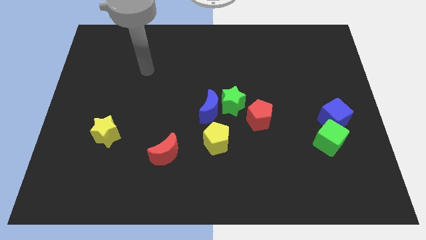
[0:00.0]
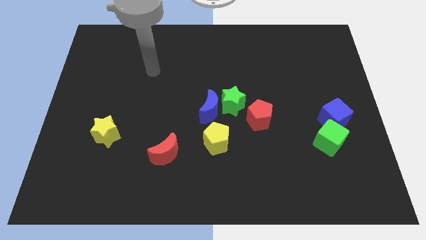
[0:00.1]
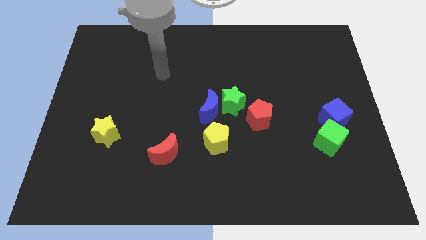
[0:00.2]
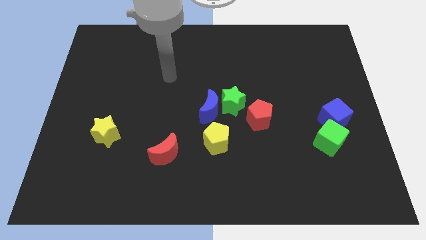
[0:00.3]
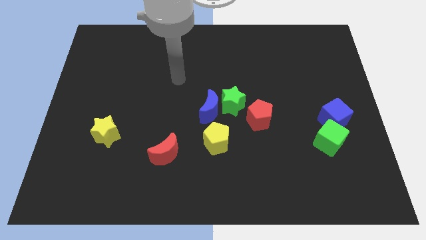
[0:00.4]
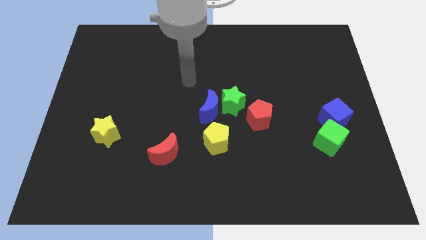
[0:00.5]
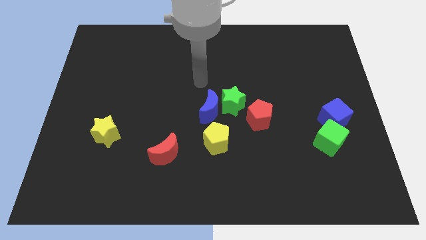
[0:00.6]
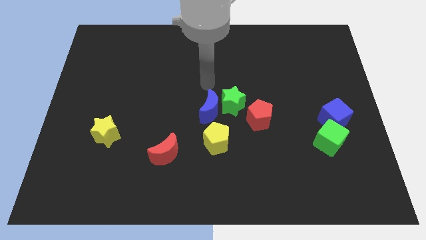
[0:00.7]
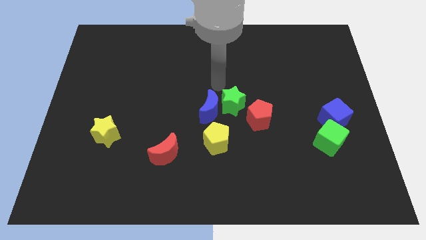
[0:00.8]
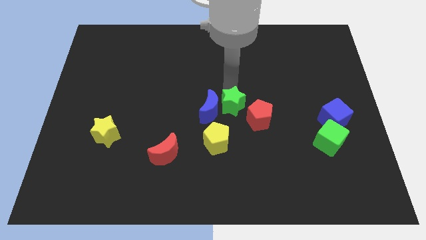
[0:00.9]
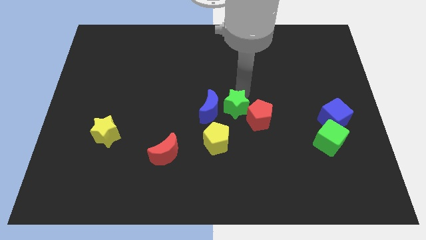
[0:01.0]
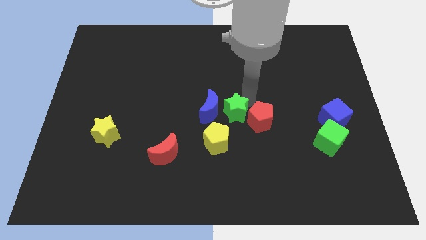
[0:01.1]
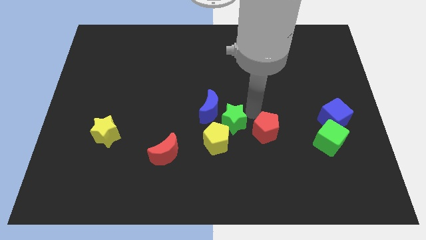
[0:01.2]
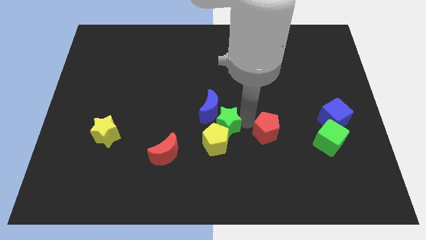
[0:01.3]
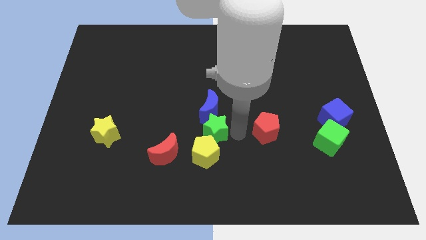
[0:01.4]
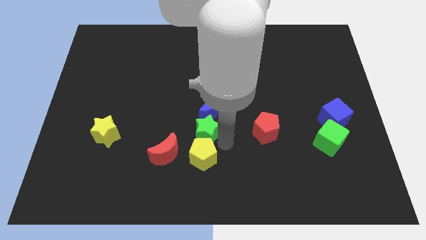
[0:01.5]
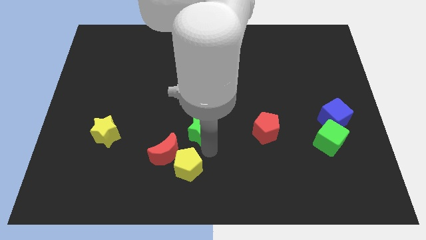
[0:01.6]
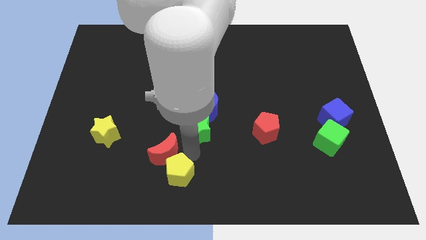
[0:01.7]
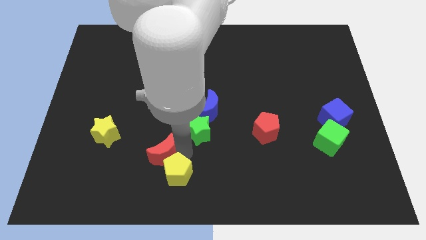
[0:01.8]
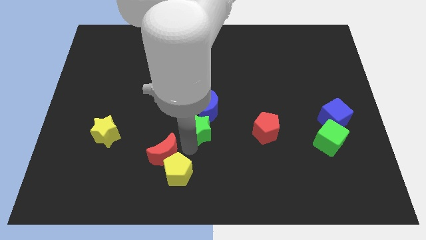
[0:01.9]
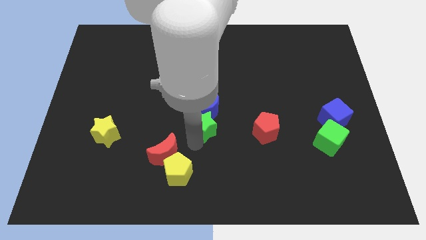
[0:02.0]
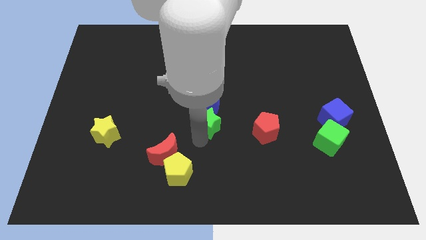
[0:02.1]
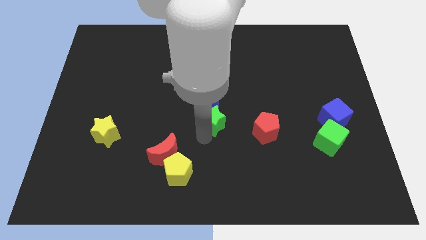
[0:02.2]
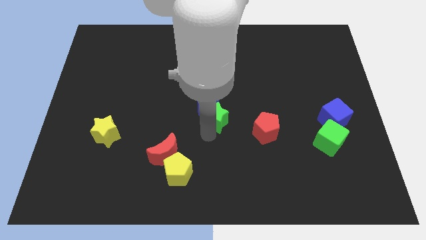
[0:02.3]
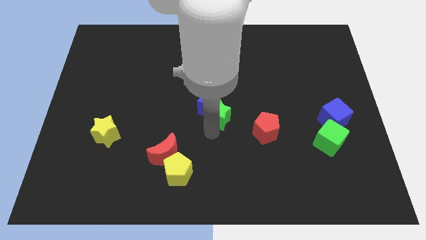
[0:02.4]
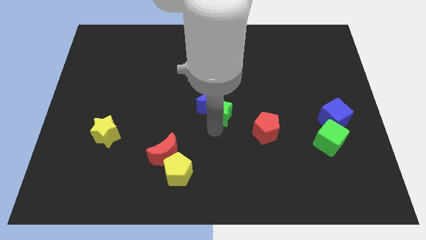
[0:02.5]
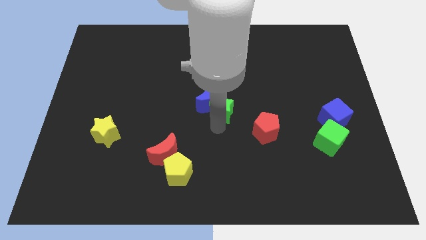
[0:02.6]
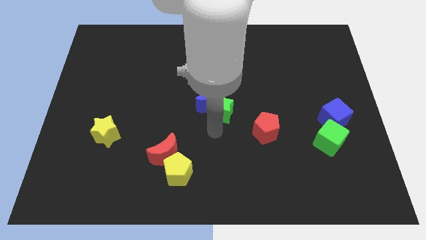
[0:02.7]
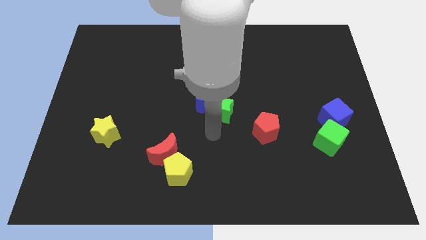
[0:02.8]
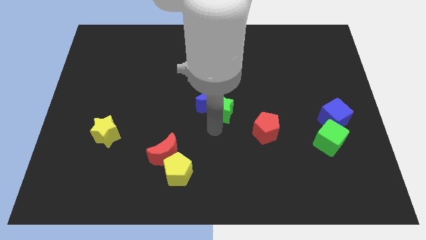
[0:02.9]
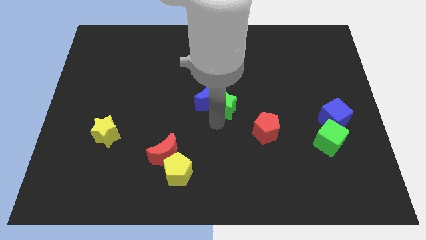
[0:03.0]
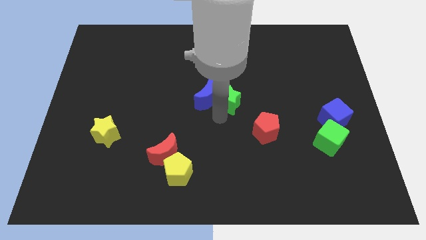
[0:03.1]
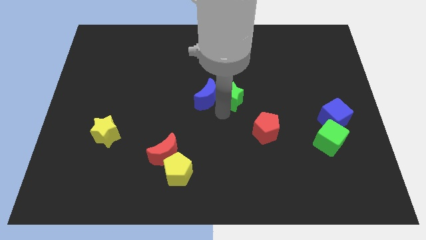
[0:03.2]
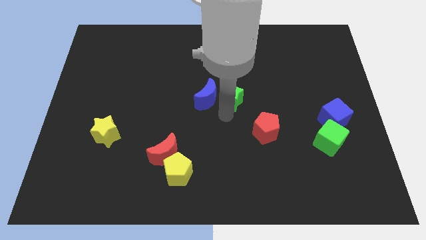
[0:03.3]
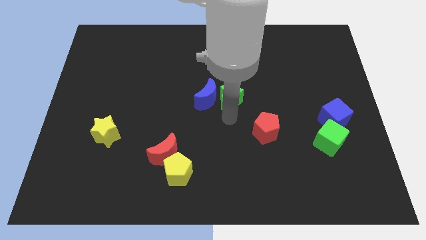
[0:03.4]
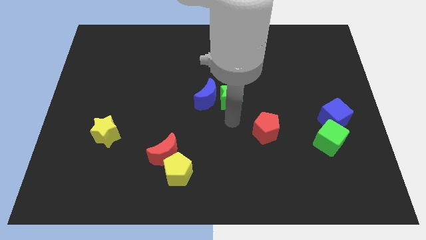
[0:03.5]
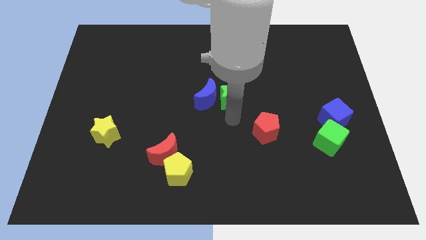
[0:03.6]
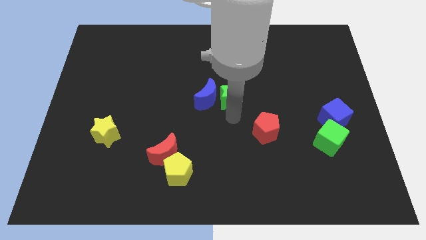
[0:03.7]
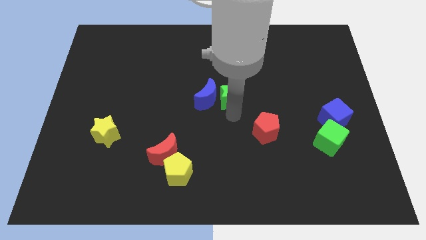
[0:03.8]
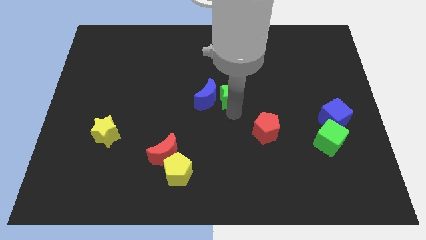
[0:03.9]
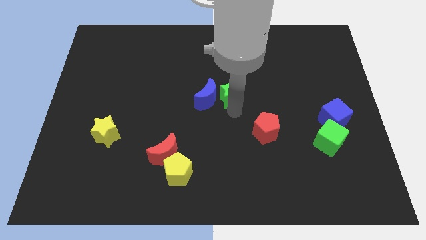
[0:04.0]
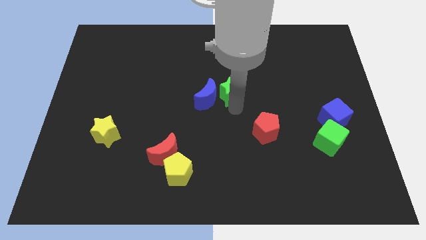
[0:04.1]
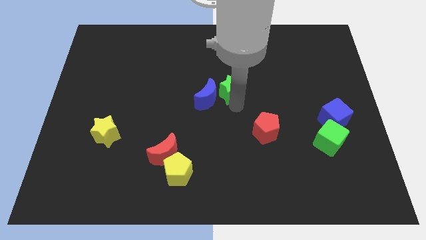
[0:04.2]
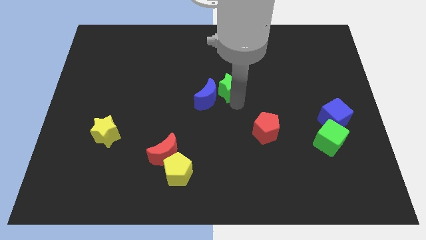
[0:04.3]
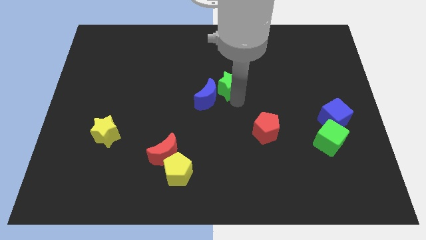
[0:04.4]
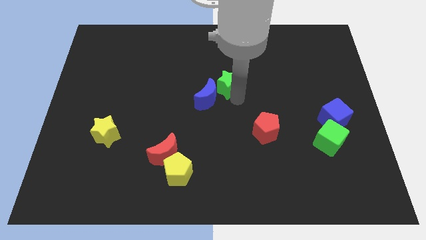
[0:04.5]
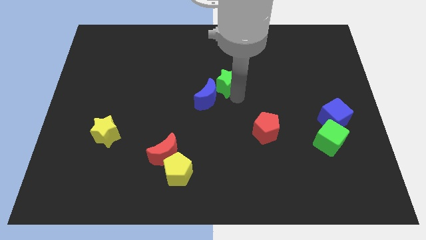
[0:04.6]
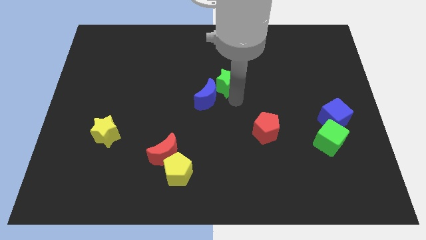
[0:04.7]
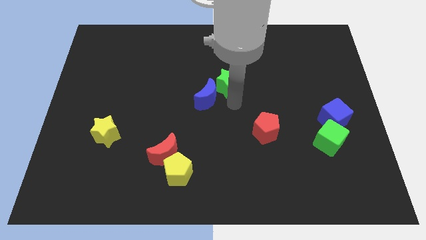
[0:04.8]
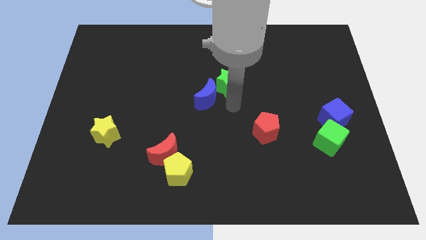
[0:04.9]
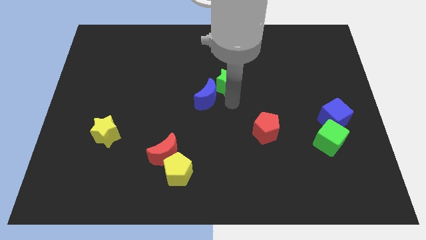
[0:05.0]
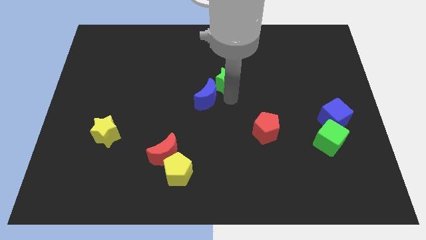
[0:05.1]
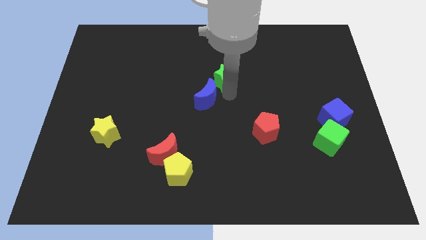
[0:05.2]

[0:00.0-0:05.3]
move the green star away from the blue moon and red pentagon

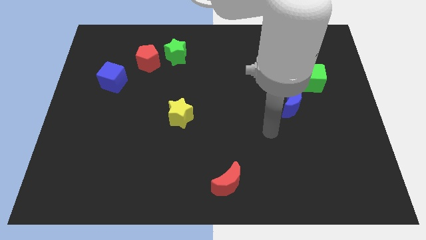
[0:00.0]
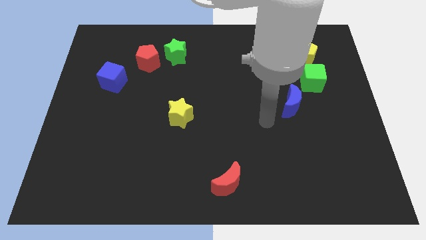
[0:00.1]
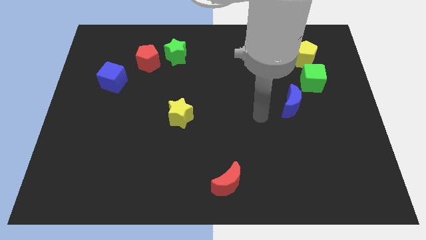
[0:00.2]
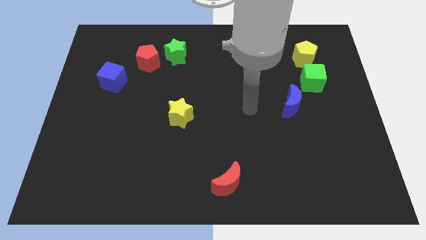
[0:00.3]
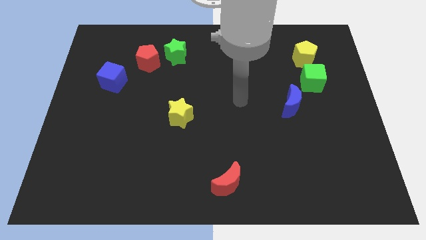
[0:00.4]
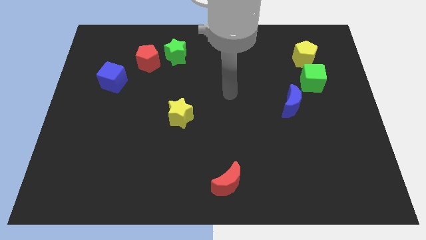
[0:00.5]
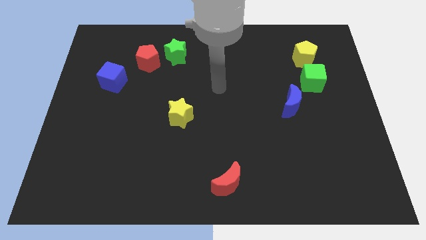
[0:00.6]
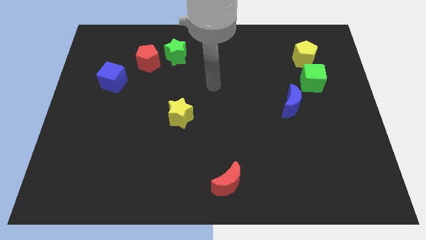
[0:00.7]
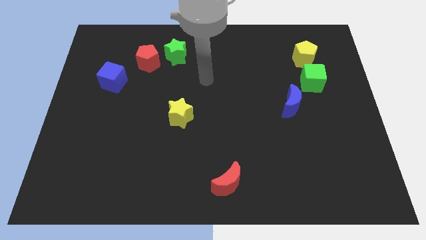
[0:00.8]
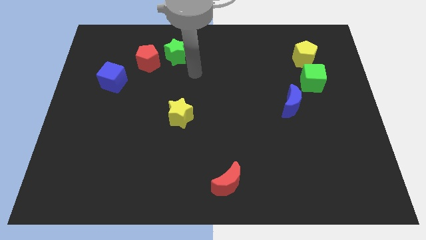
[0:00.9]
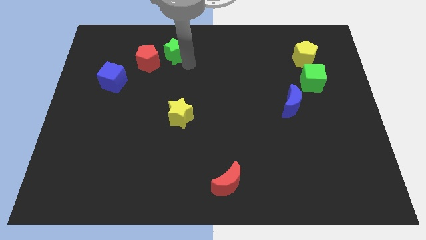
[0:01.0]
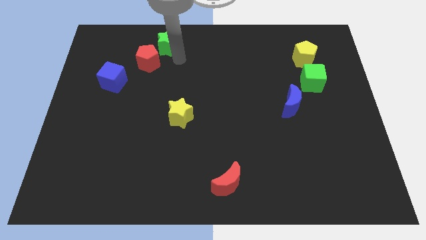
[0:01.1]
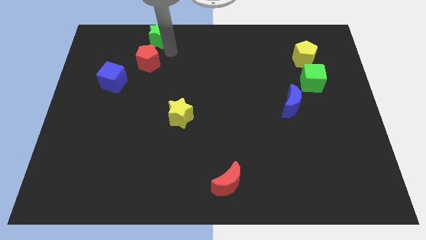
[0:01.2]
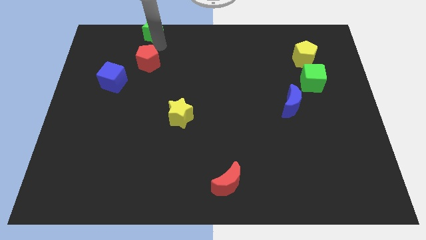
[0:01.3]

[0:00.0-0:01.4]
pull the red pentagon apart from the green star

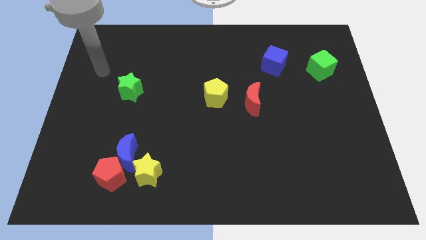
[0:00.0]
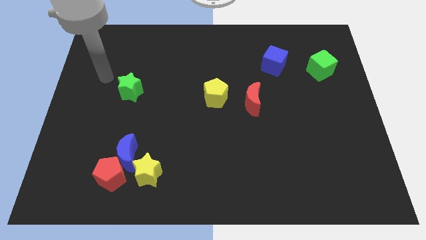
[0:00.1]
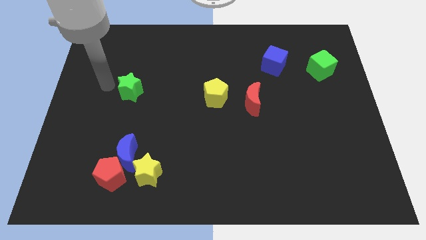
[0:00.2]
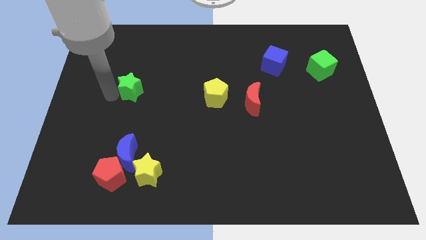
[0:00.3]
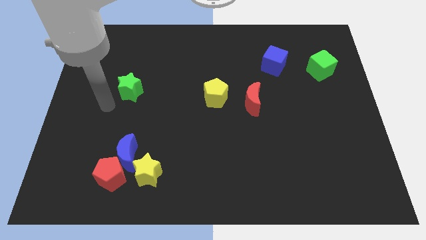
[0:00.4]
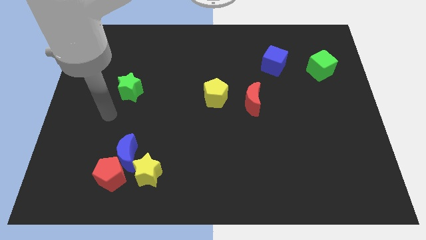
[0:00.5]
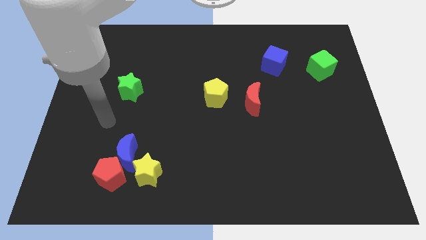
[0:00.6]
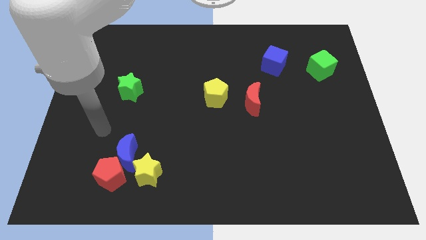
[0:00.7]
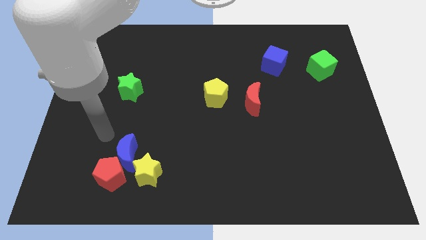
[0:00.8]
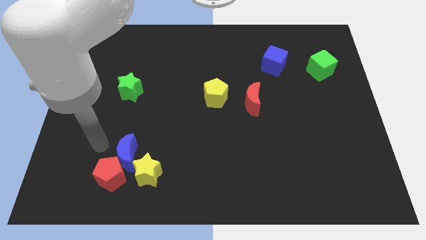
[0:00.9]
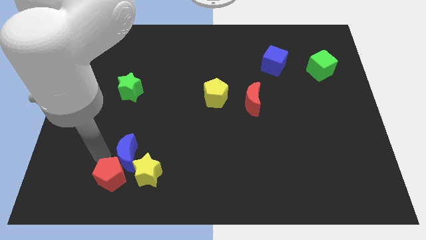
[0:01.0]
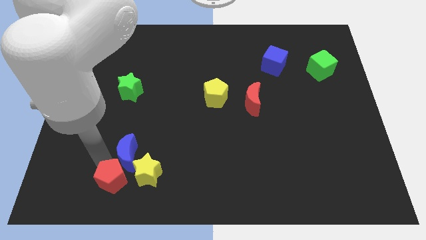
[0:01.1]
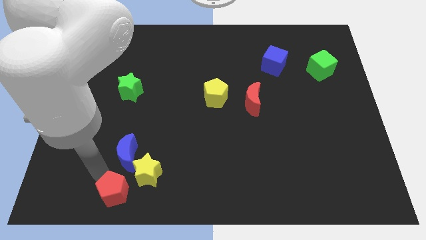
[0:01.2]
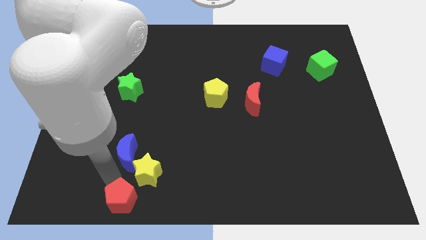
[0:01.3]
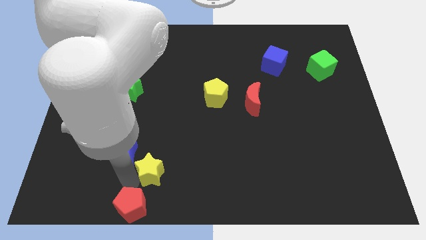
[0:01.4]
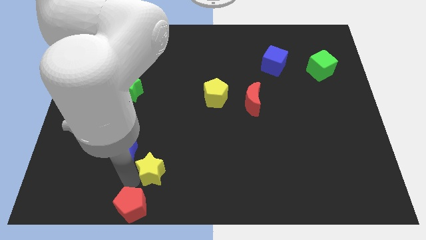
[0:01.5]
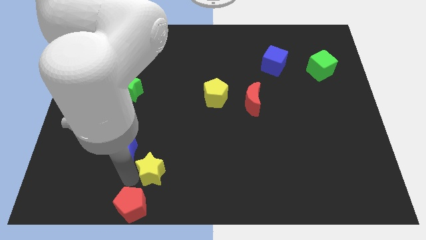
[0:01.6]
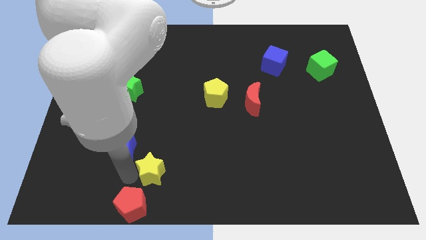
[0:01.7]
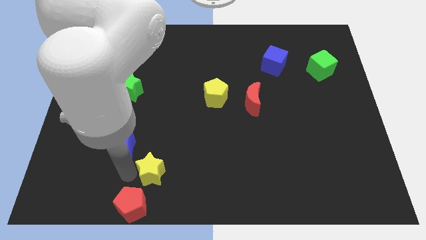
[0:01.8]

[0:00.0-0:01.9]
pull the blue moon apart from the red pentagon and yellow star

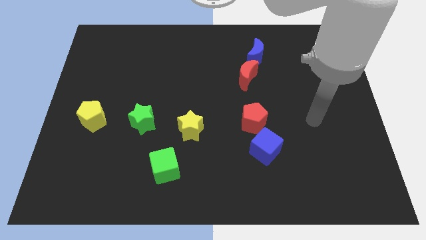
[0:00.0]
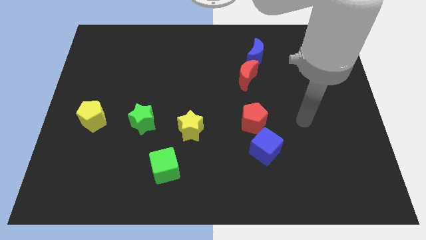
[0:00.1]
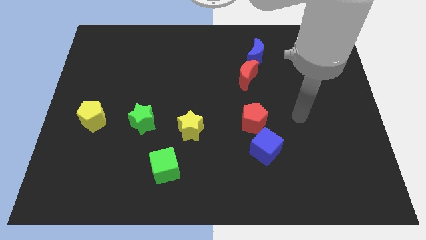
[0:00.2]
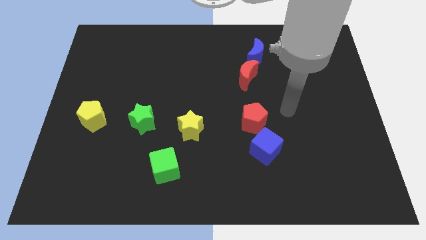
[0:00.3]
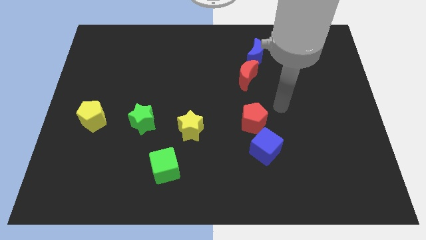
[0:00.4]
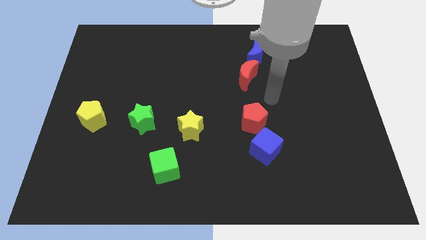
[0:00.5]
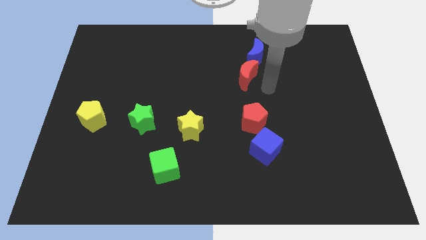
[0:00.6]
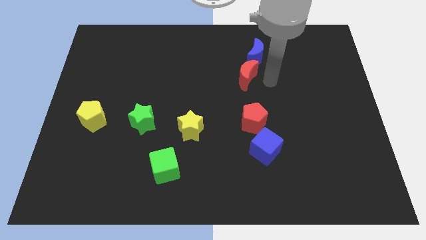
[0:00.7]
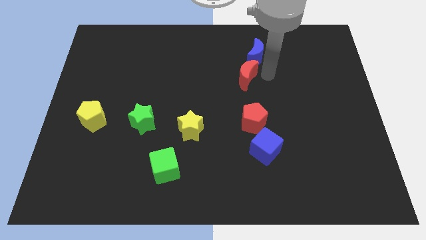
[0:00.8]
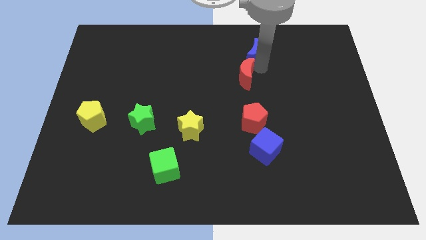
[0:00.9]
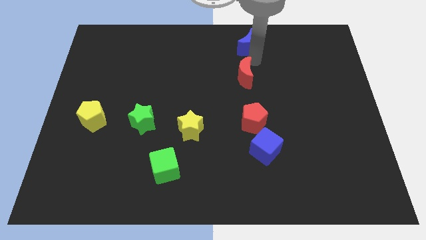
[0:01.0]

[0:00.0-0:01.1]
separate the red moon from the blue moon
